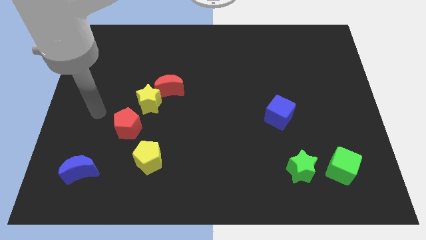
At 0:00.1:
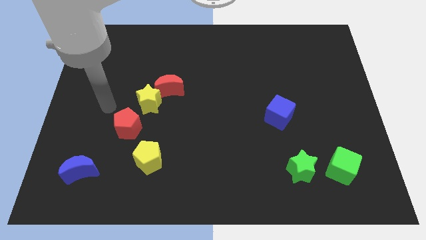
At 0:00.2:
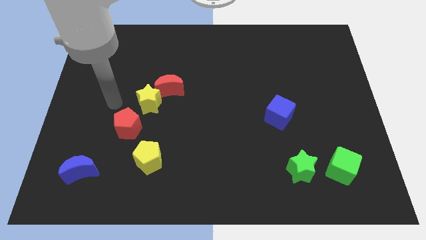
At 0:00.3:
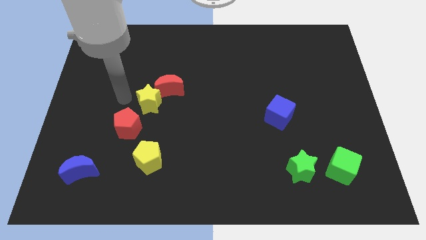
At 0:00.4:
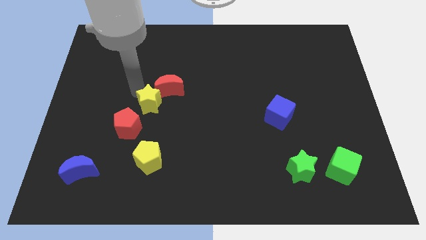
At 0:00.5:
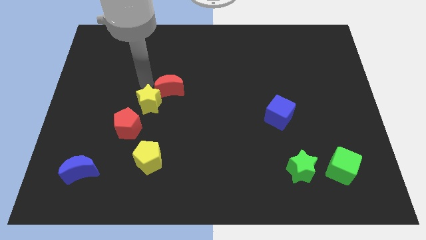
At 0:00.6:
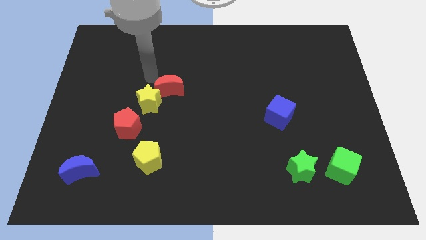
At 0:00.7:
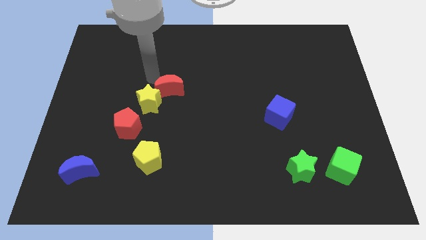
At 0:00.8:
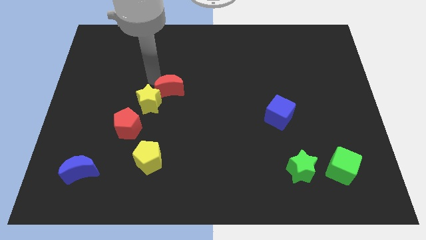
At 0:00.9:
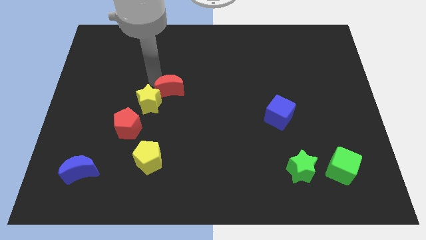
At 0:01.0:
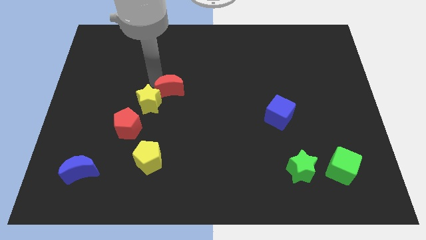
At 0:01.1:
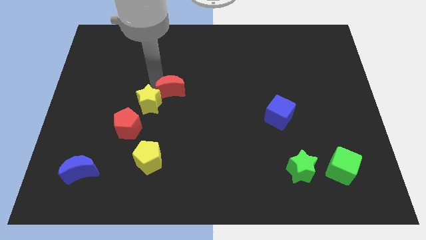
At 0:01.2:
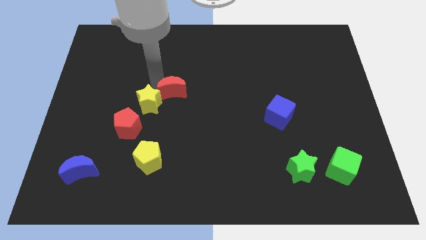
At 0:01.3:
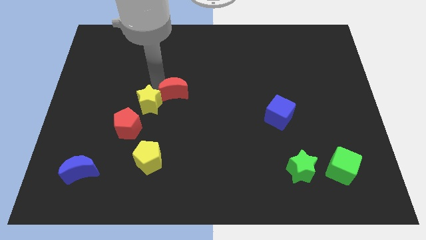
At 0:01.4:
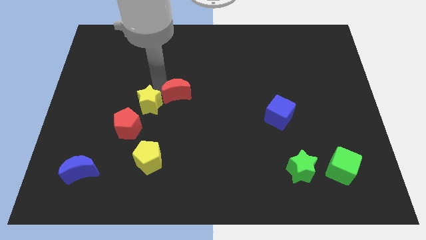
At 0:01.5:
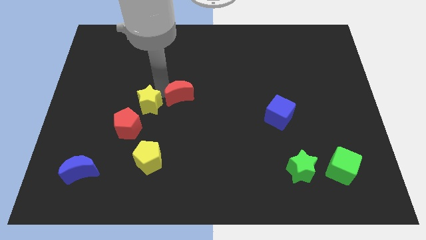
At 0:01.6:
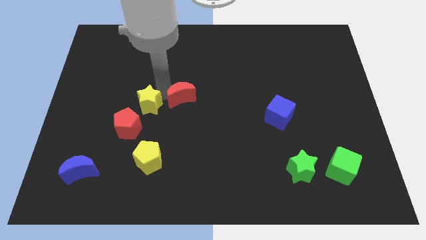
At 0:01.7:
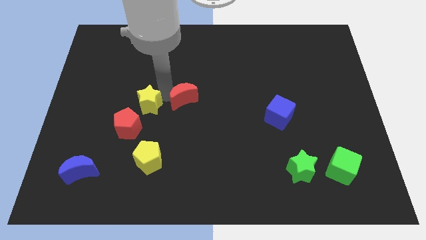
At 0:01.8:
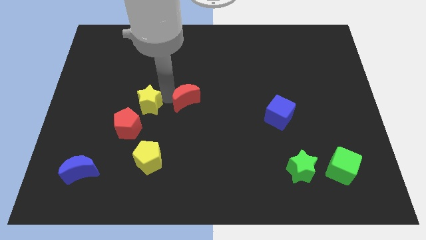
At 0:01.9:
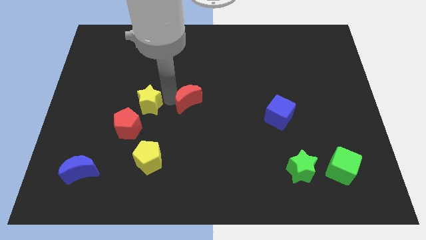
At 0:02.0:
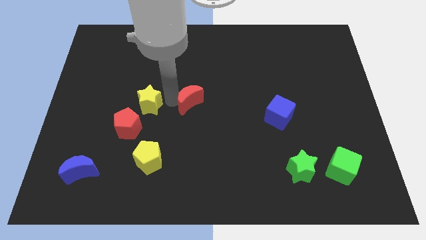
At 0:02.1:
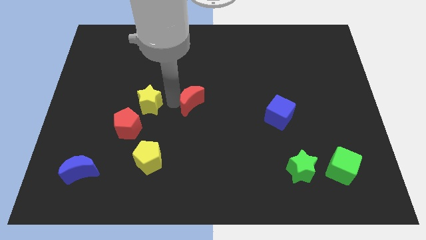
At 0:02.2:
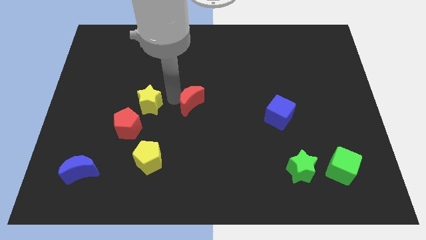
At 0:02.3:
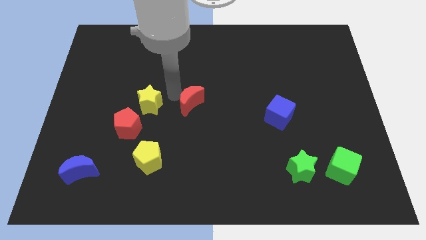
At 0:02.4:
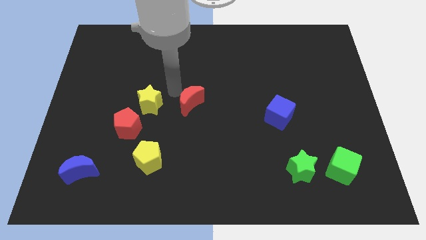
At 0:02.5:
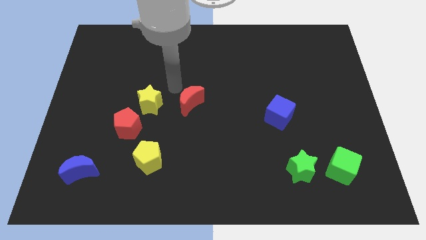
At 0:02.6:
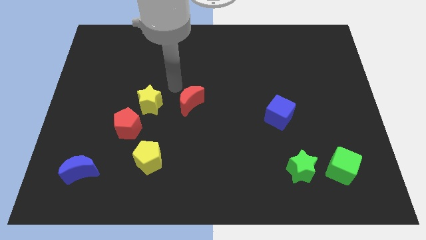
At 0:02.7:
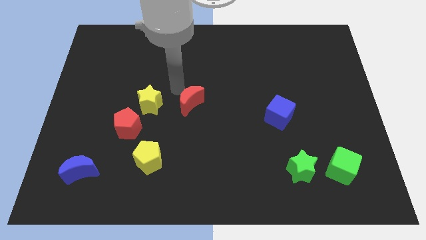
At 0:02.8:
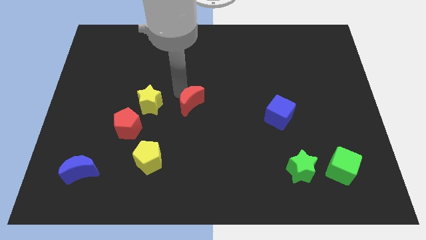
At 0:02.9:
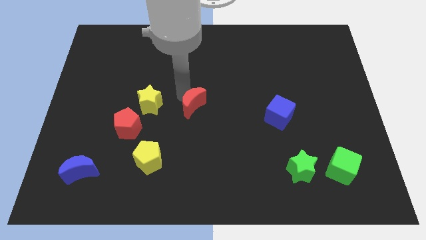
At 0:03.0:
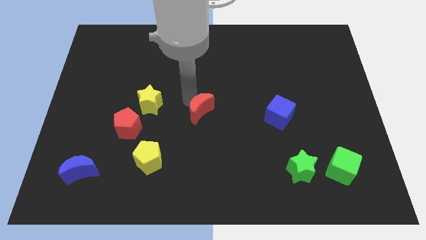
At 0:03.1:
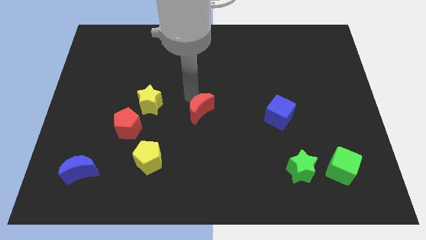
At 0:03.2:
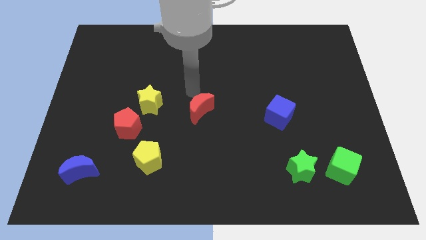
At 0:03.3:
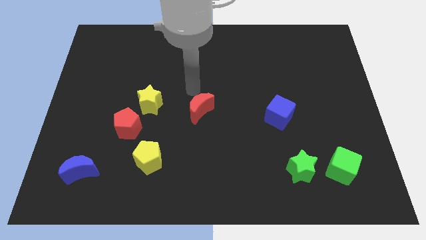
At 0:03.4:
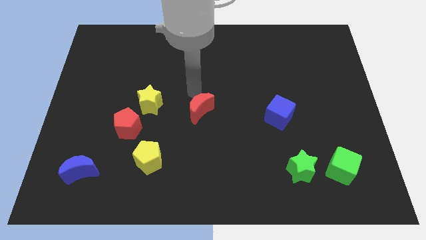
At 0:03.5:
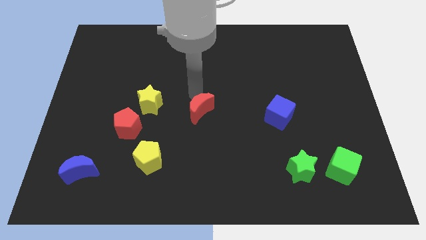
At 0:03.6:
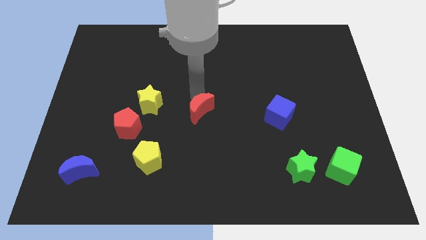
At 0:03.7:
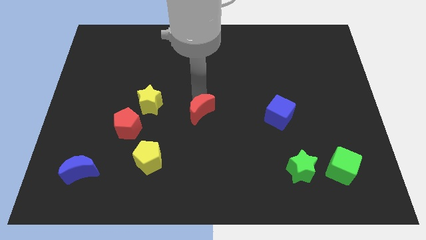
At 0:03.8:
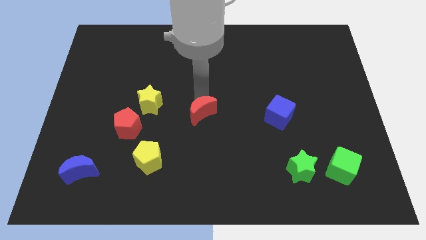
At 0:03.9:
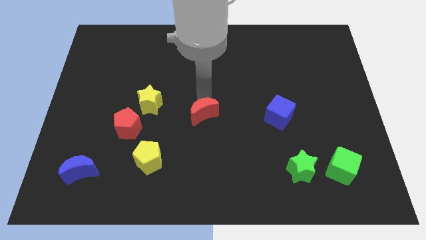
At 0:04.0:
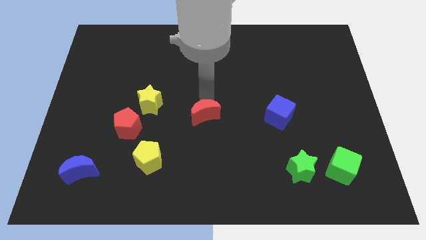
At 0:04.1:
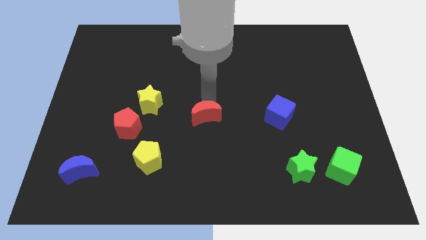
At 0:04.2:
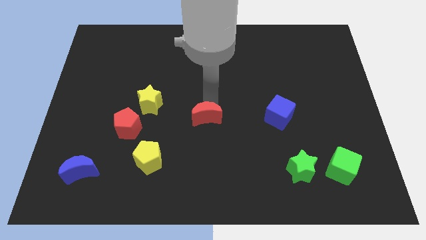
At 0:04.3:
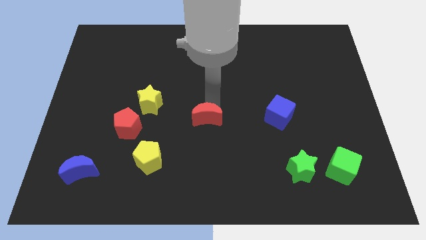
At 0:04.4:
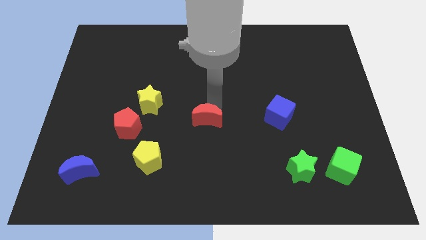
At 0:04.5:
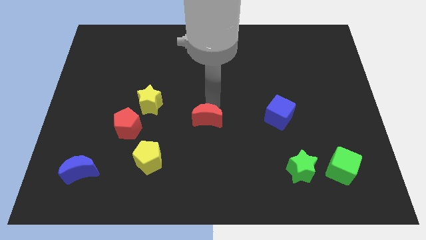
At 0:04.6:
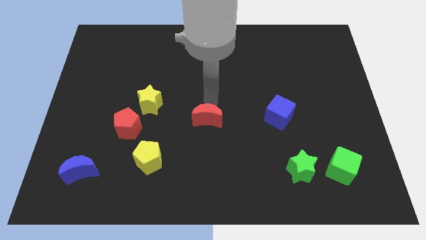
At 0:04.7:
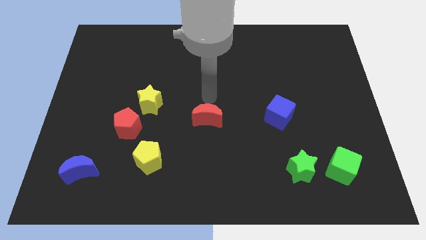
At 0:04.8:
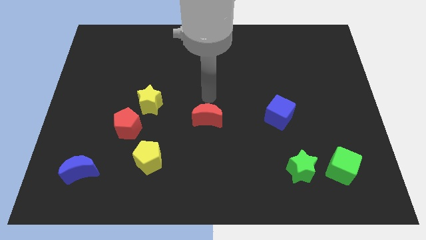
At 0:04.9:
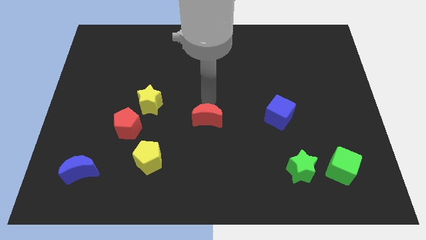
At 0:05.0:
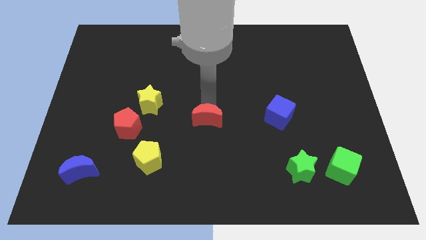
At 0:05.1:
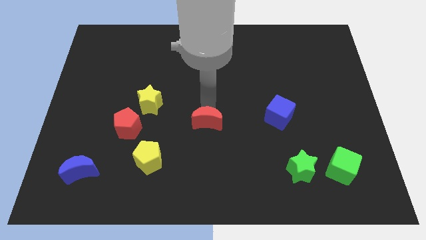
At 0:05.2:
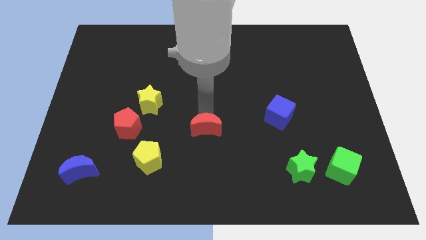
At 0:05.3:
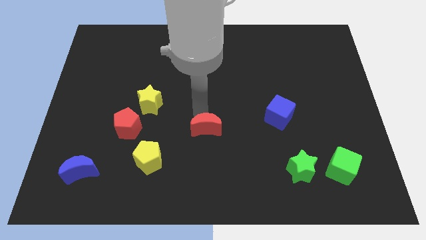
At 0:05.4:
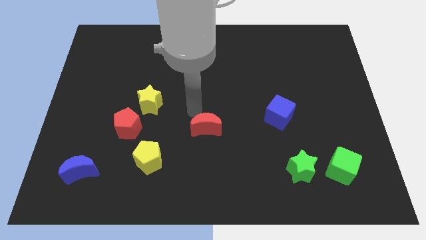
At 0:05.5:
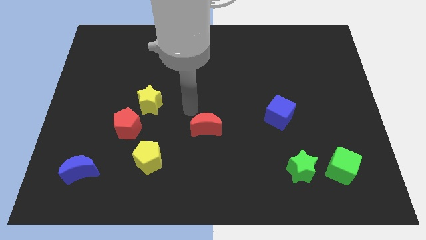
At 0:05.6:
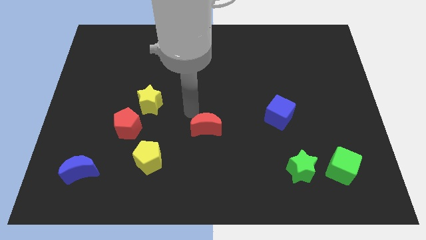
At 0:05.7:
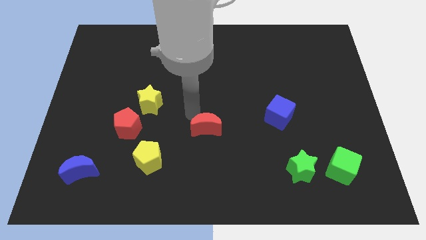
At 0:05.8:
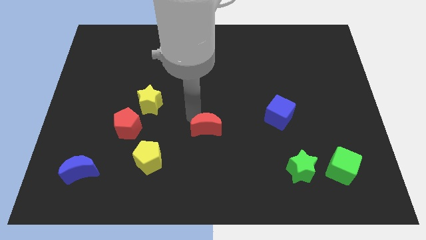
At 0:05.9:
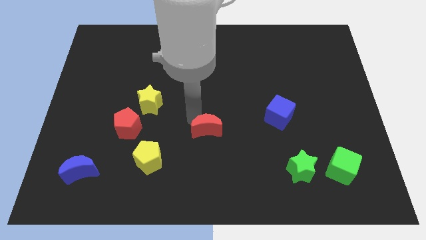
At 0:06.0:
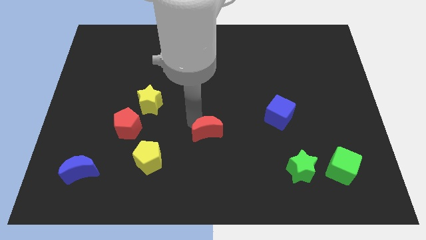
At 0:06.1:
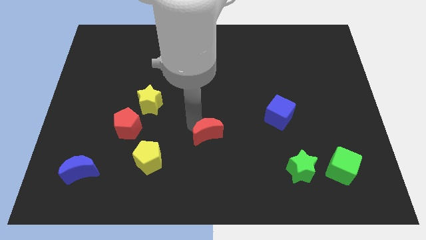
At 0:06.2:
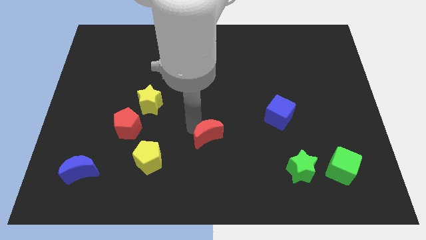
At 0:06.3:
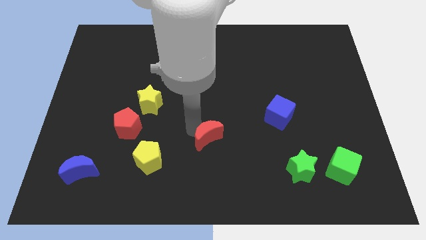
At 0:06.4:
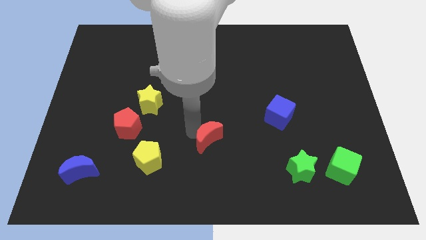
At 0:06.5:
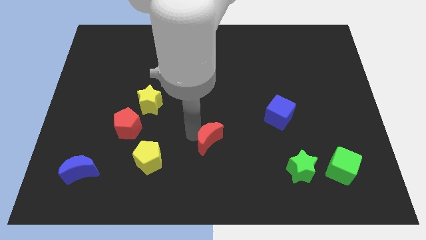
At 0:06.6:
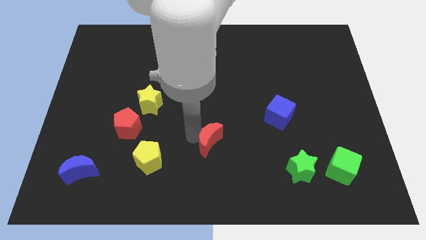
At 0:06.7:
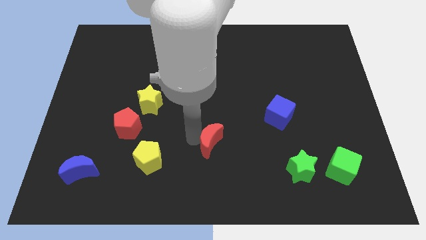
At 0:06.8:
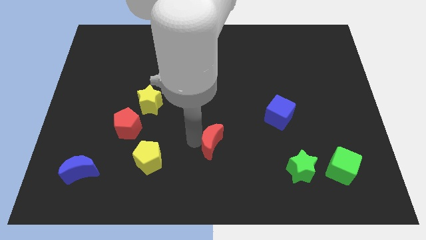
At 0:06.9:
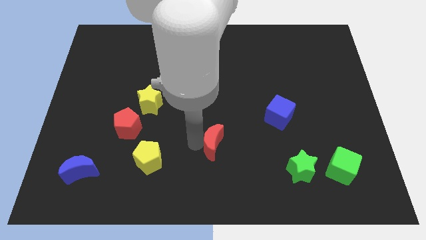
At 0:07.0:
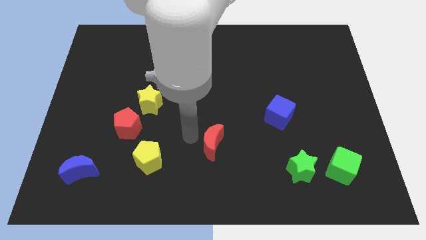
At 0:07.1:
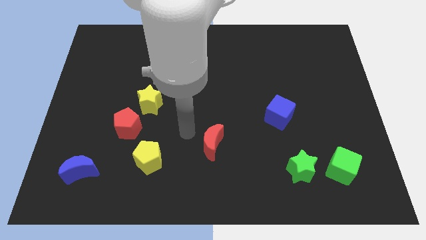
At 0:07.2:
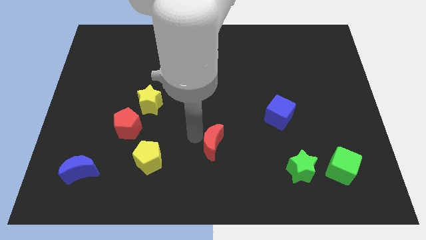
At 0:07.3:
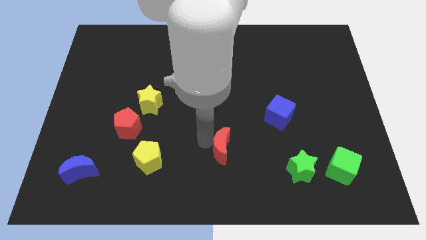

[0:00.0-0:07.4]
slide the red moon diagonally downwards and right

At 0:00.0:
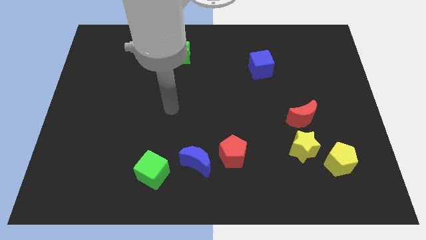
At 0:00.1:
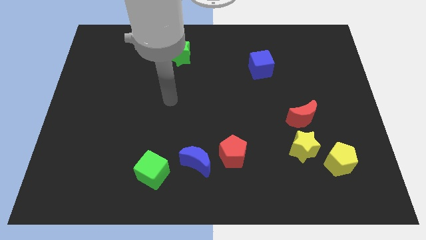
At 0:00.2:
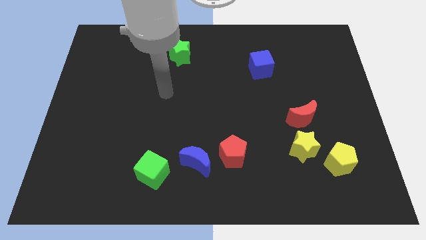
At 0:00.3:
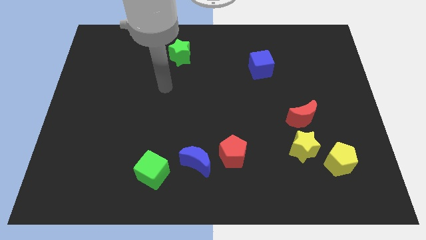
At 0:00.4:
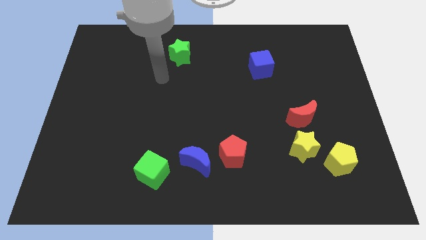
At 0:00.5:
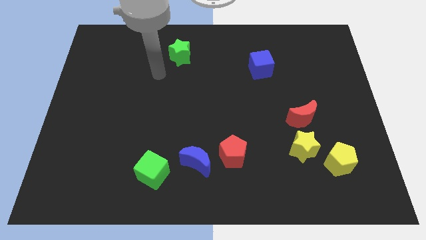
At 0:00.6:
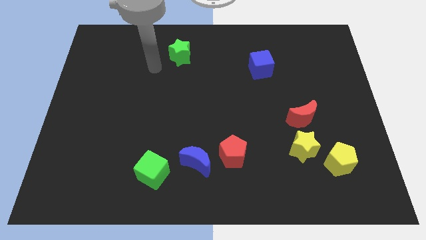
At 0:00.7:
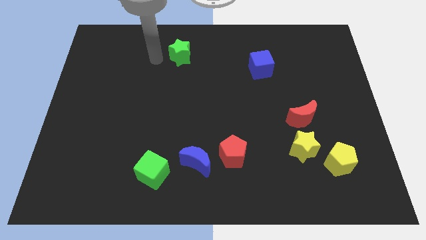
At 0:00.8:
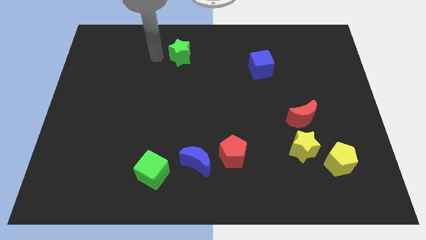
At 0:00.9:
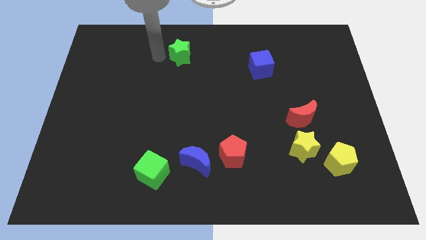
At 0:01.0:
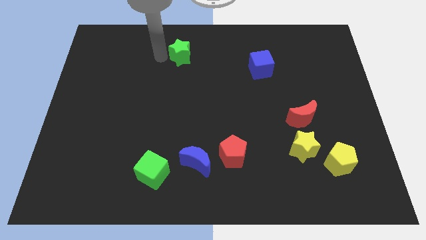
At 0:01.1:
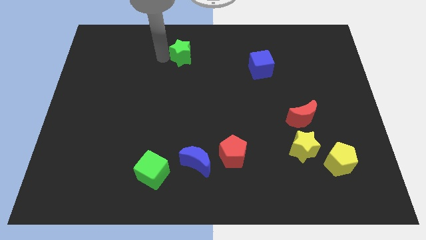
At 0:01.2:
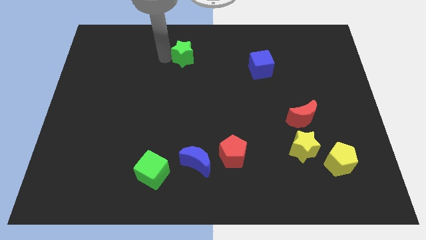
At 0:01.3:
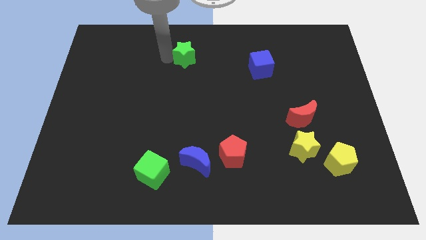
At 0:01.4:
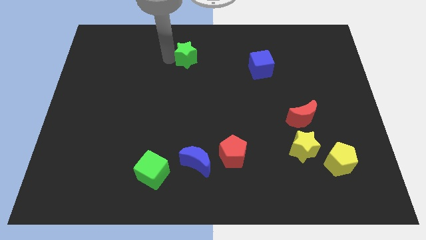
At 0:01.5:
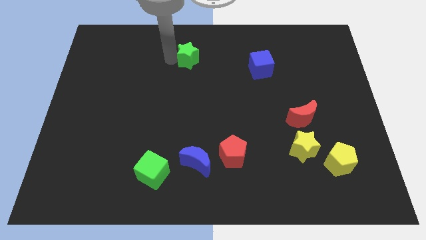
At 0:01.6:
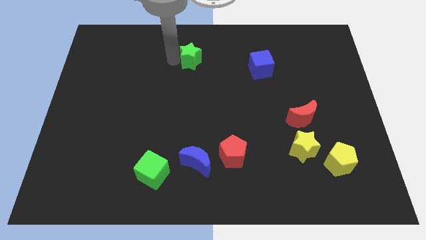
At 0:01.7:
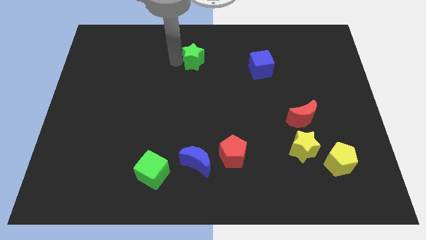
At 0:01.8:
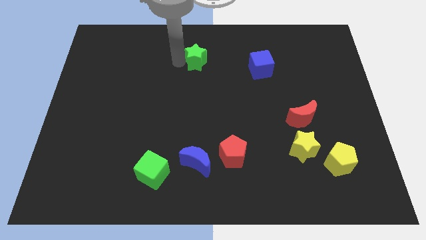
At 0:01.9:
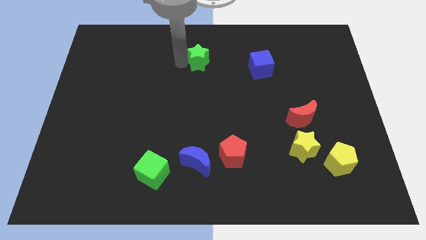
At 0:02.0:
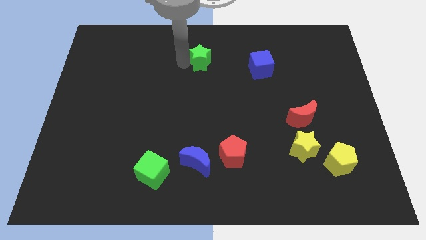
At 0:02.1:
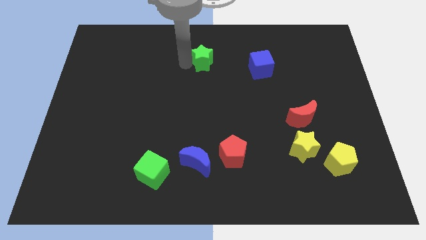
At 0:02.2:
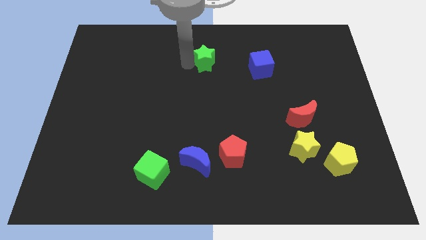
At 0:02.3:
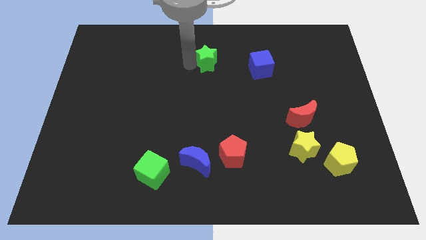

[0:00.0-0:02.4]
slightly slide the green star right
